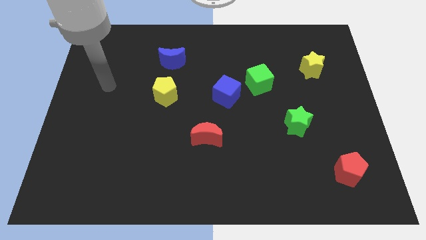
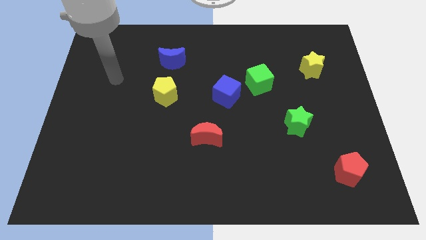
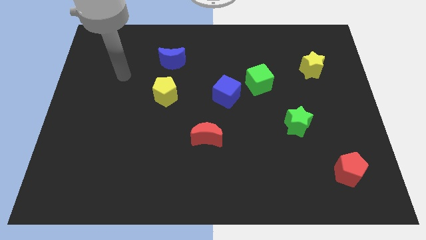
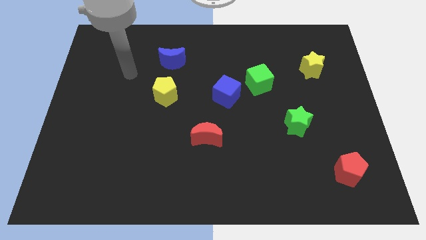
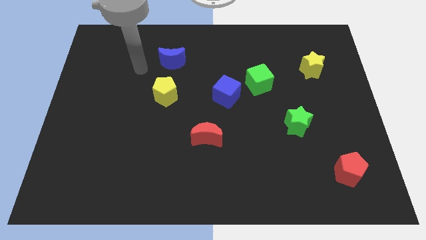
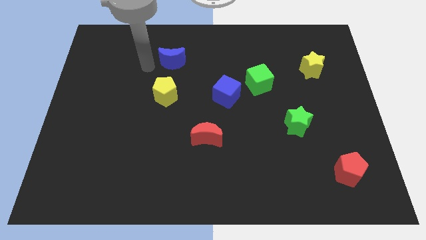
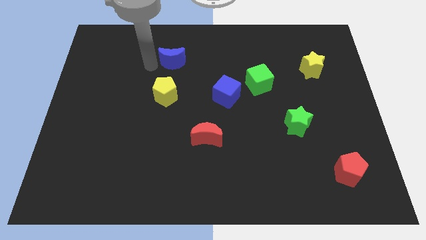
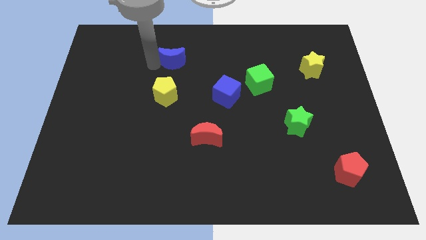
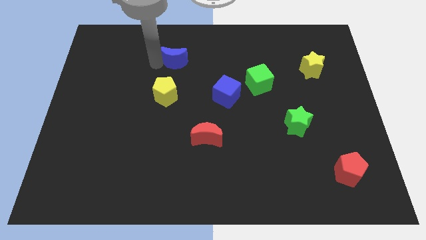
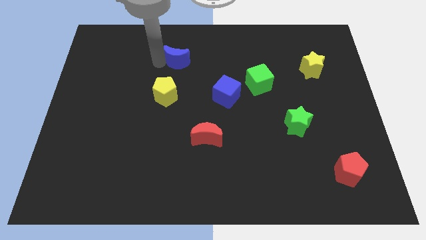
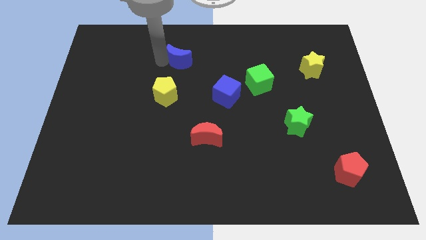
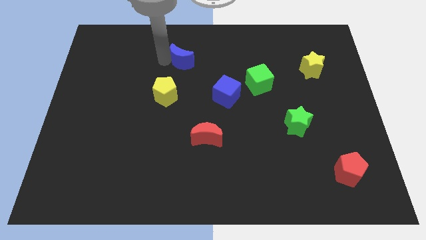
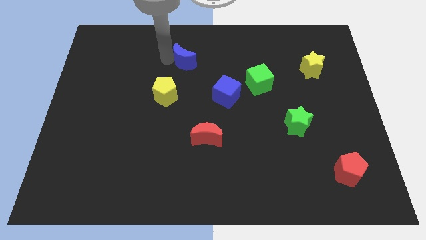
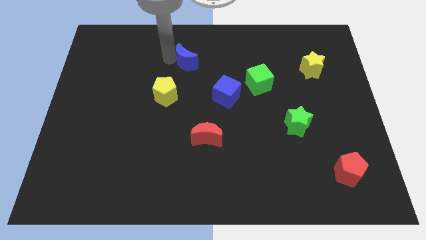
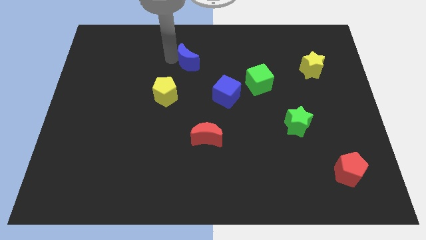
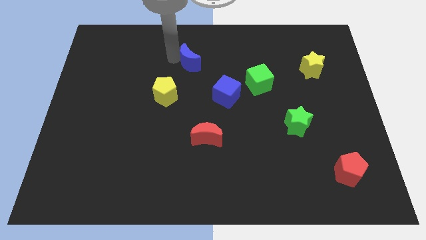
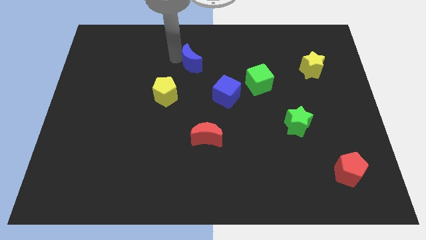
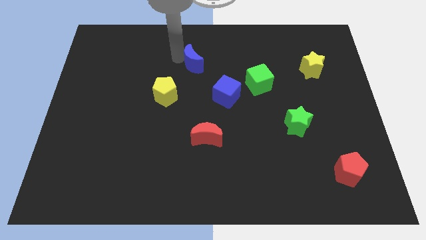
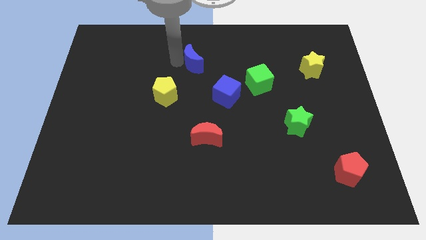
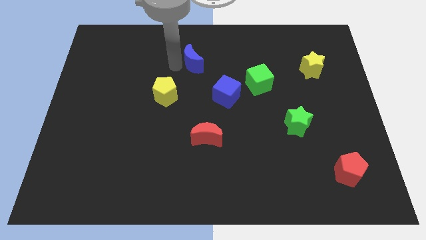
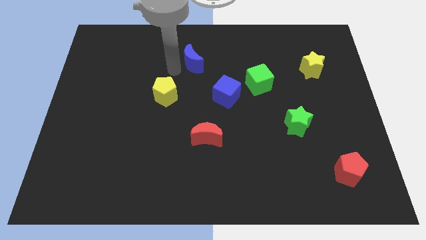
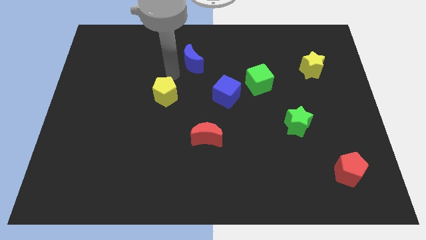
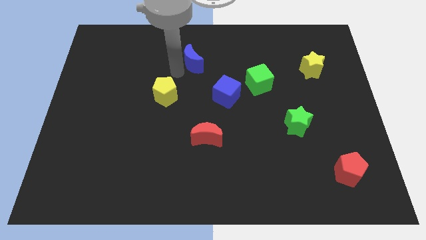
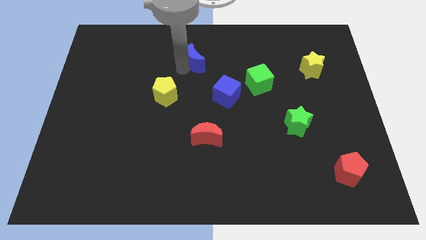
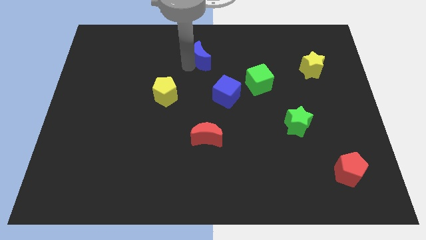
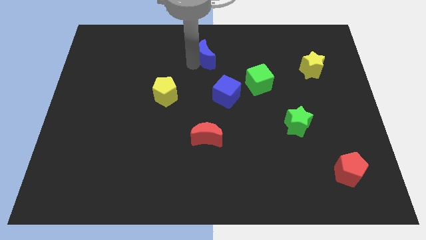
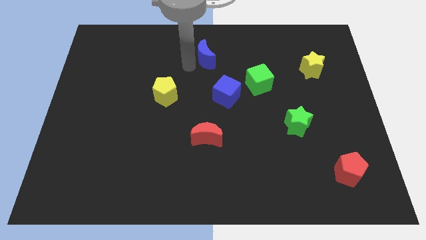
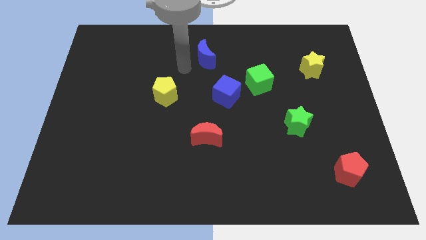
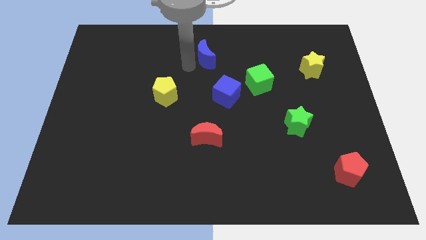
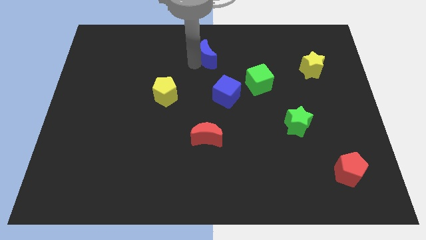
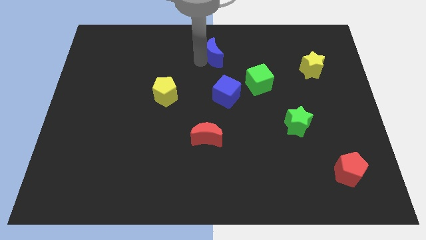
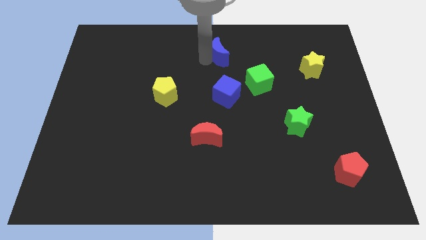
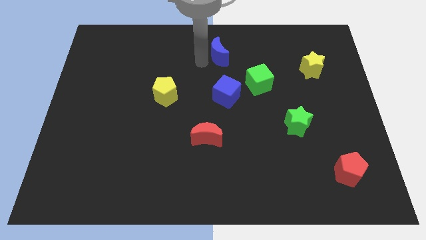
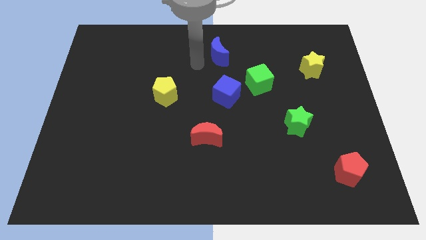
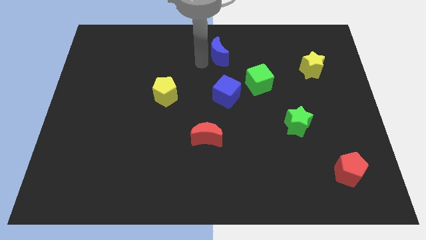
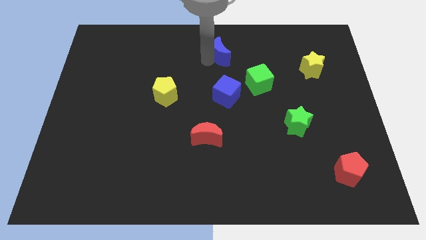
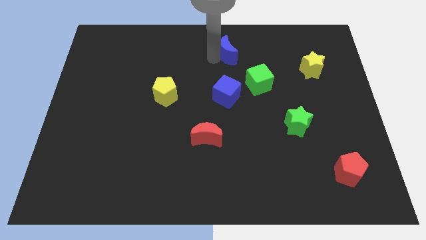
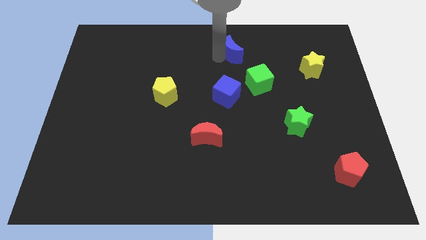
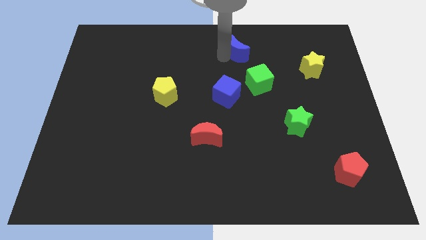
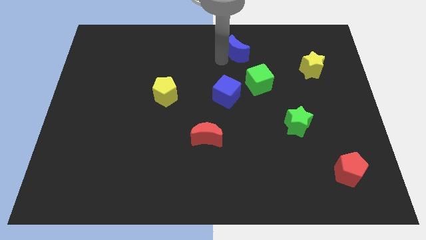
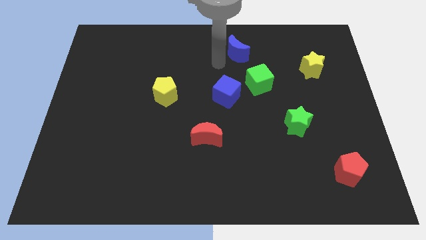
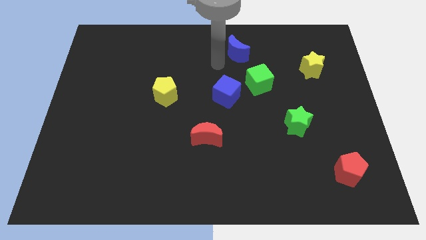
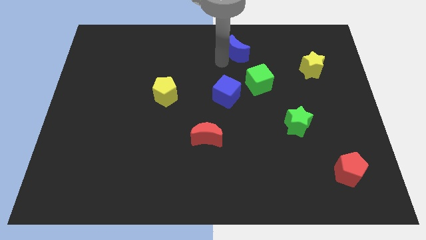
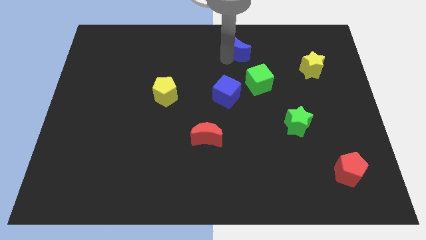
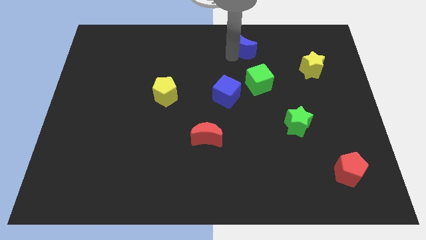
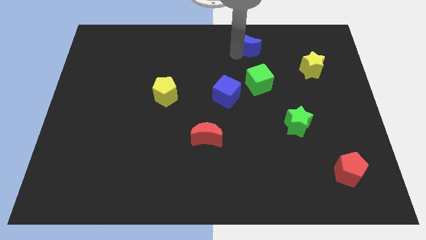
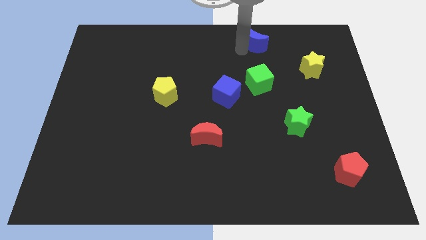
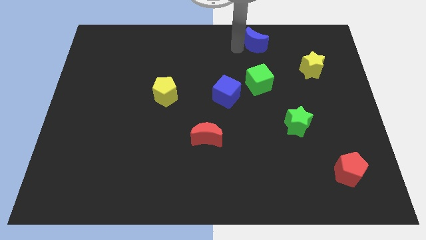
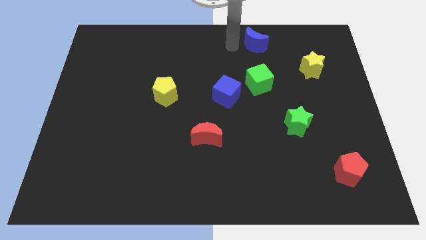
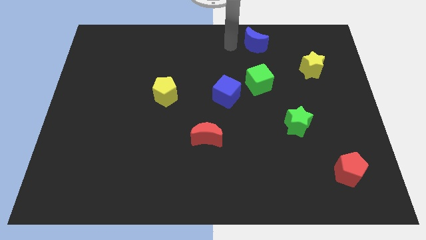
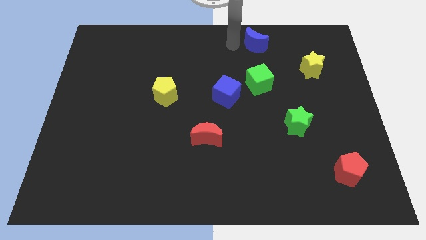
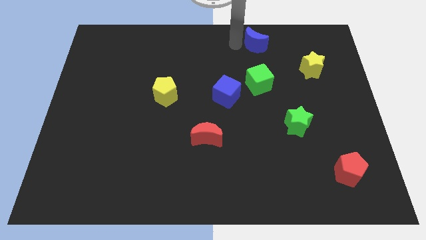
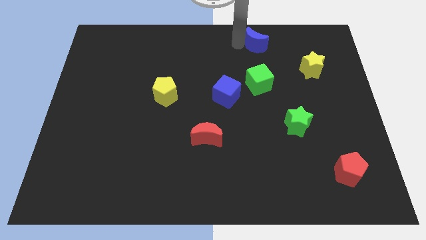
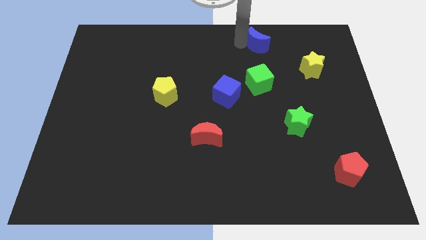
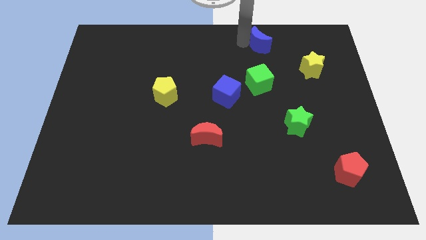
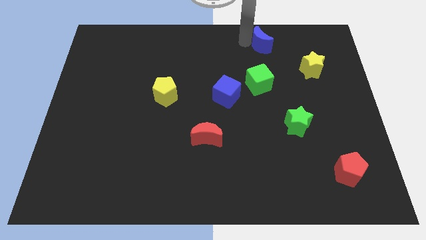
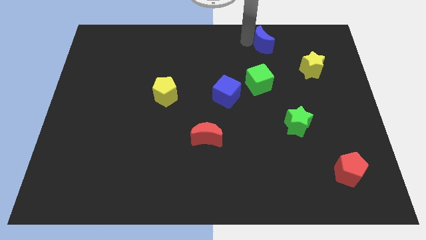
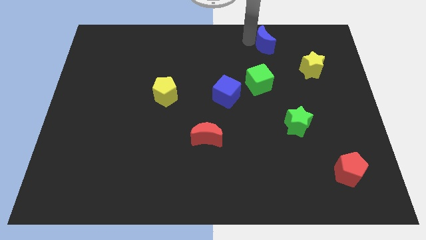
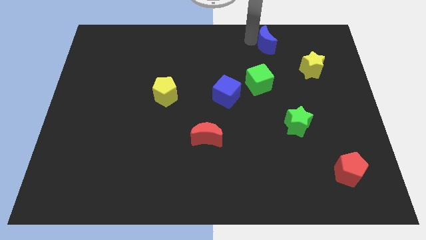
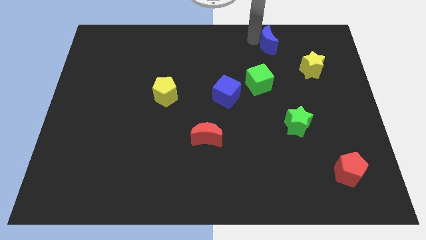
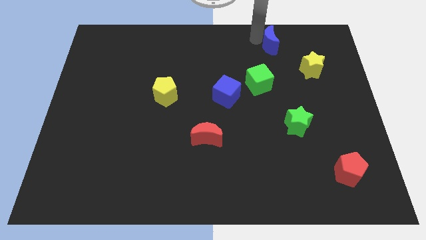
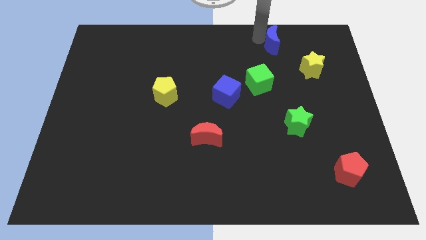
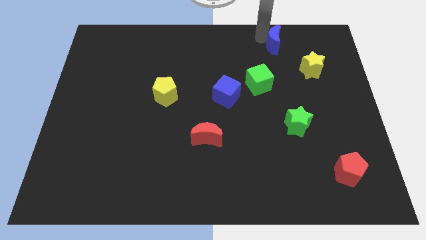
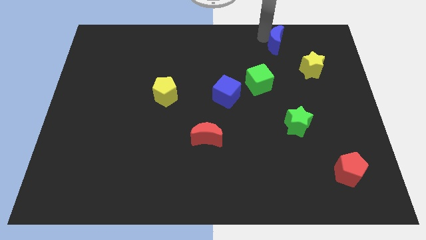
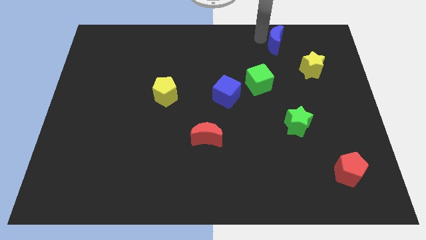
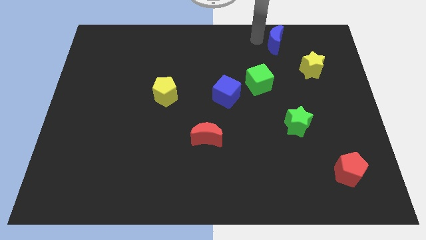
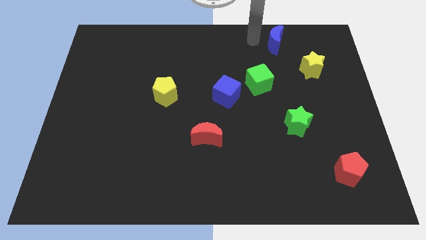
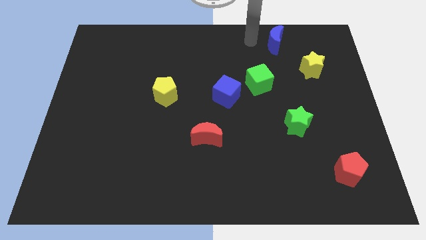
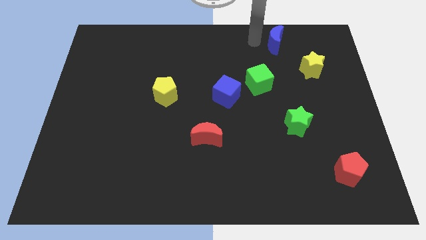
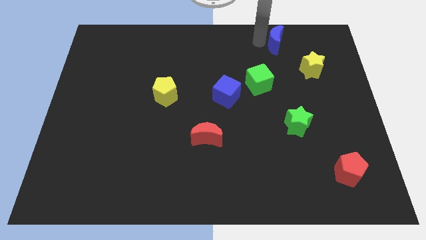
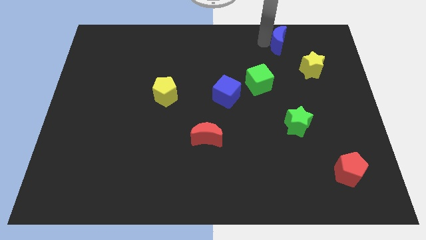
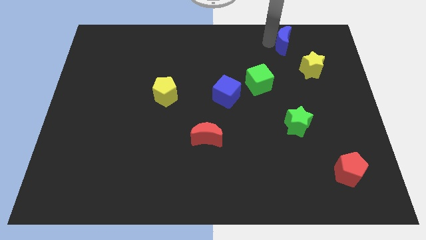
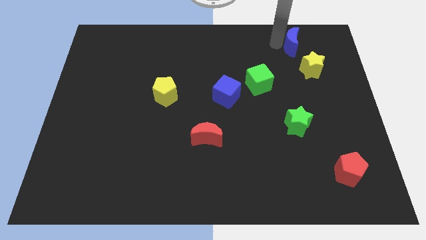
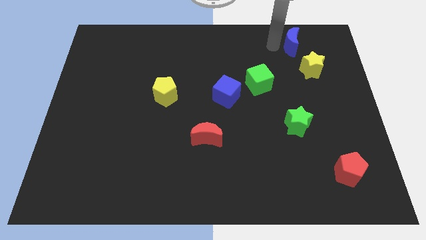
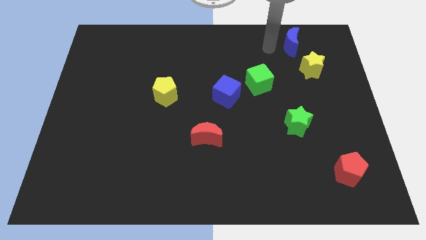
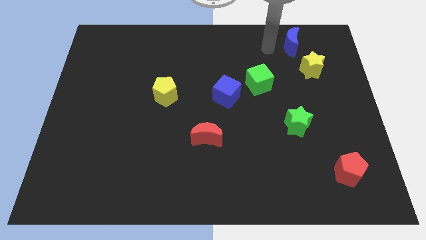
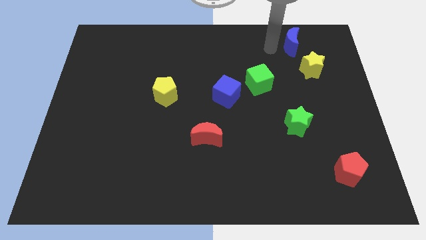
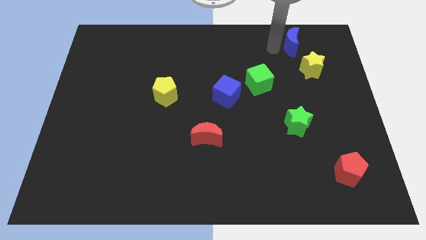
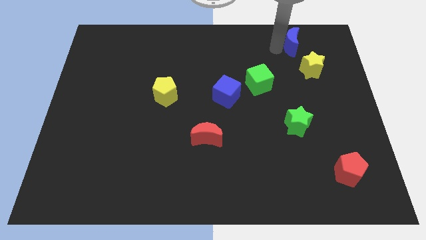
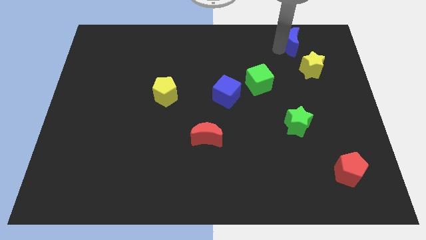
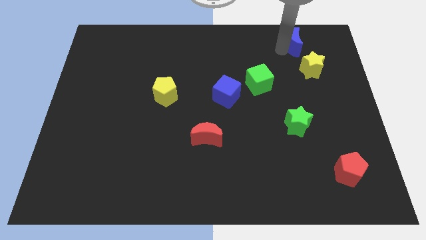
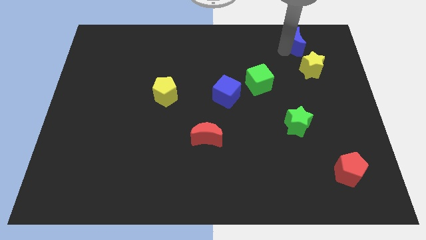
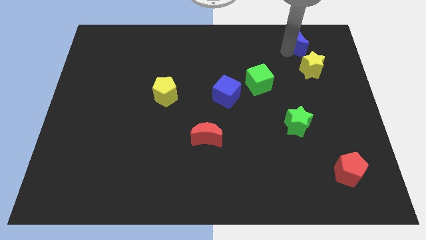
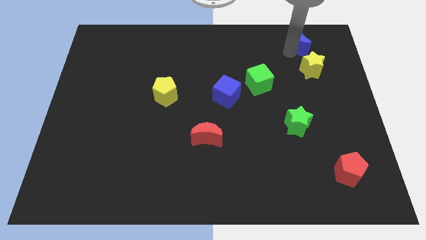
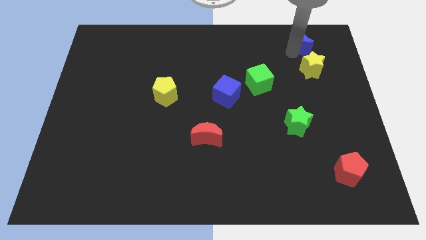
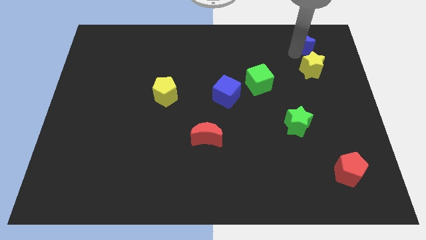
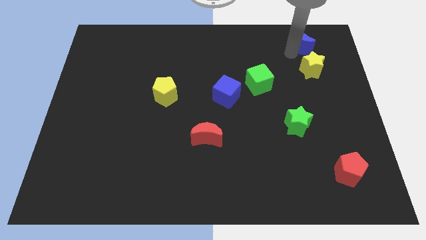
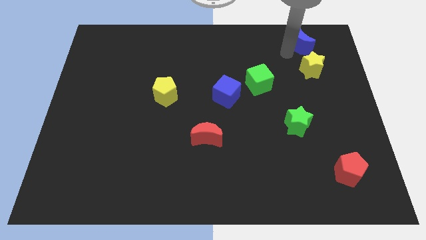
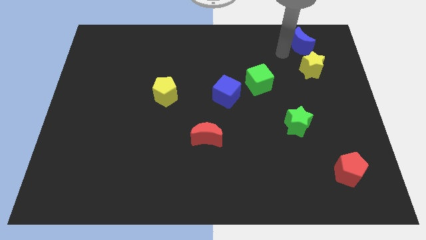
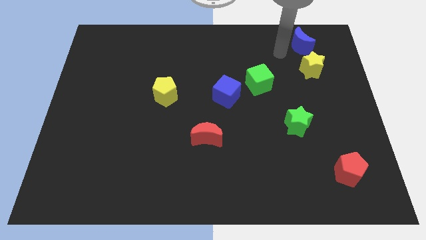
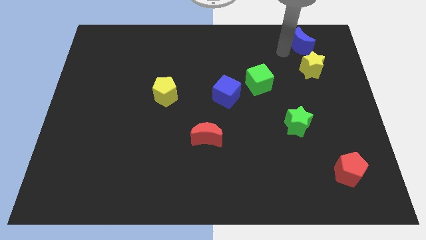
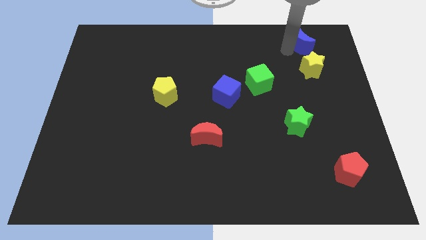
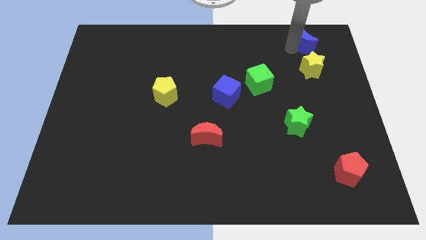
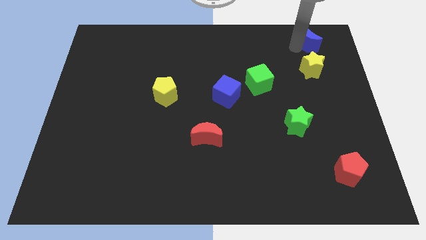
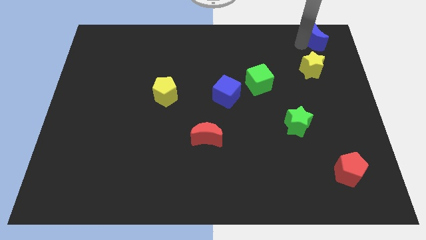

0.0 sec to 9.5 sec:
put the blue moon to the top right
